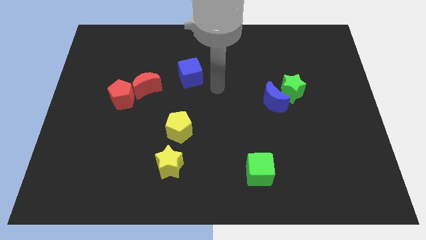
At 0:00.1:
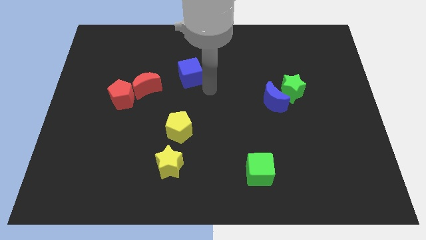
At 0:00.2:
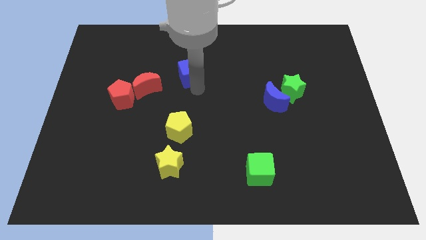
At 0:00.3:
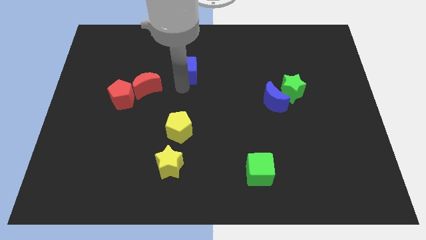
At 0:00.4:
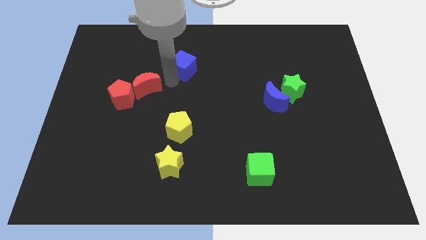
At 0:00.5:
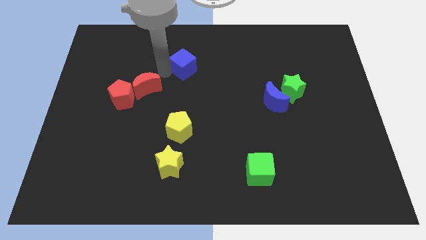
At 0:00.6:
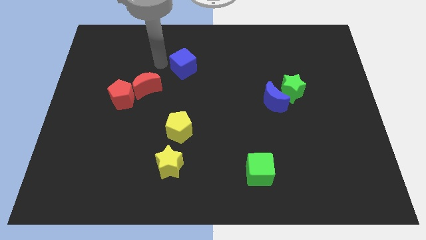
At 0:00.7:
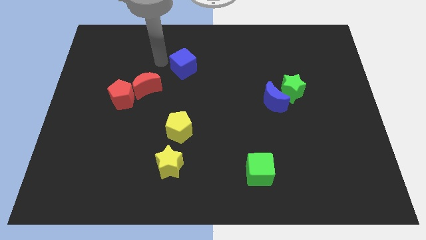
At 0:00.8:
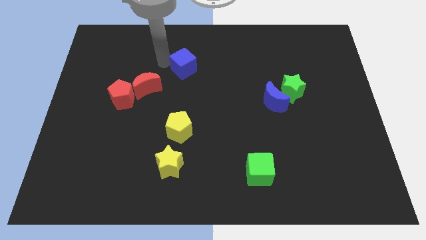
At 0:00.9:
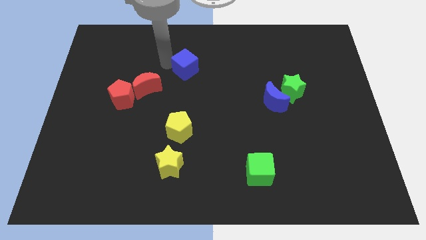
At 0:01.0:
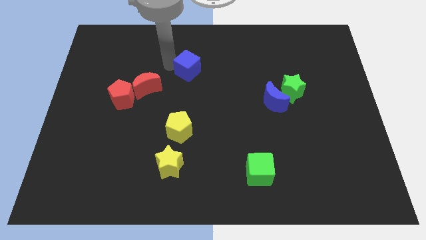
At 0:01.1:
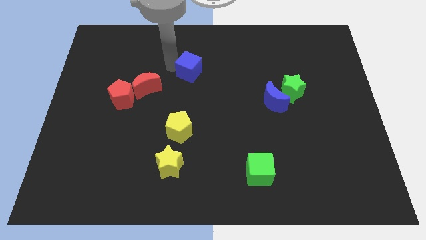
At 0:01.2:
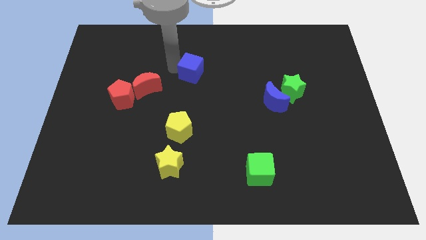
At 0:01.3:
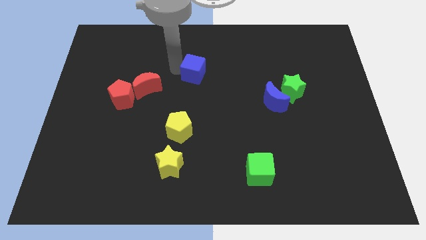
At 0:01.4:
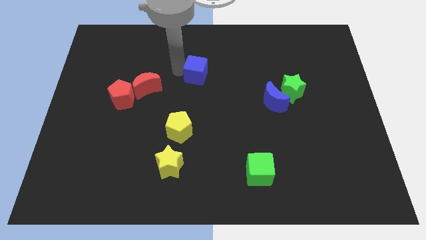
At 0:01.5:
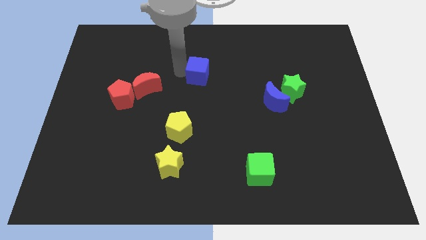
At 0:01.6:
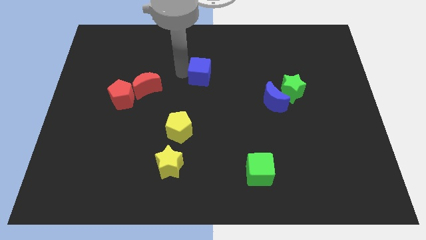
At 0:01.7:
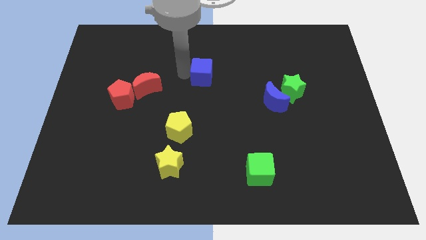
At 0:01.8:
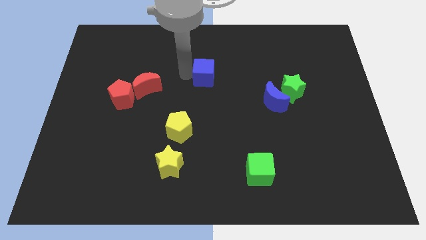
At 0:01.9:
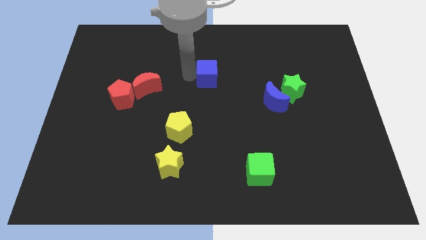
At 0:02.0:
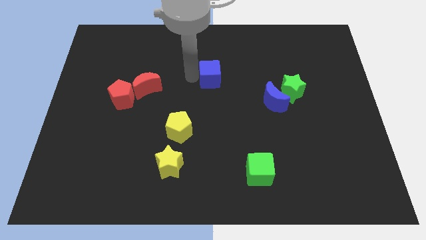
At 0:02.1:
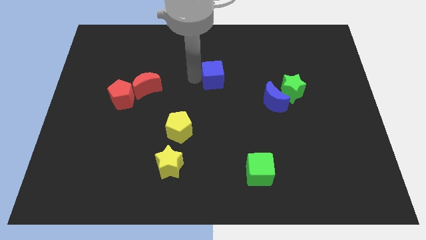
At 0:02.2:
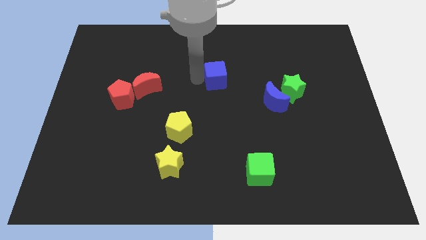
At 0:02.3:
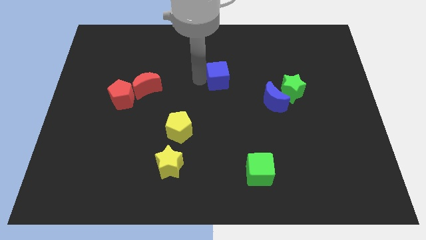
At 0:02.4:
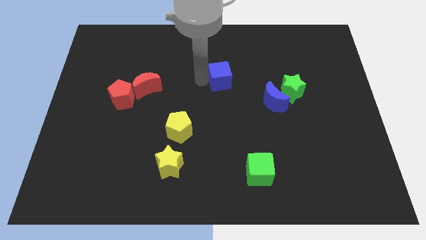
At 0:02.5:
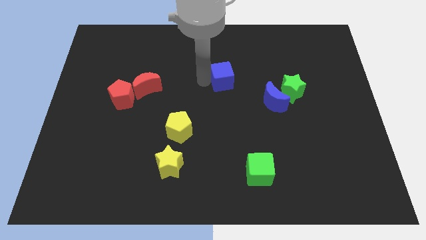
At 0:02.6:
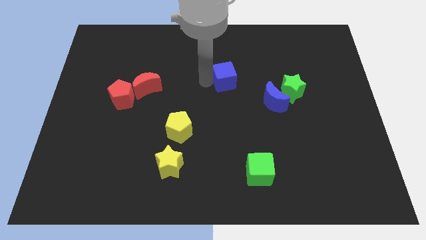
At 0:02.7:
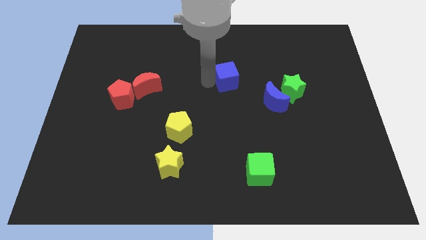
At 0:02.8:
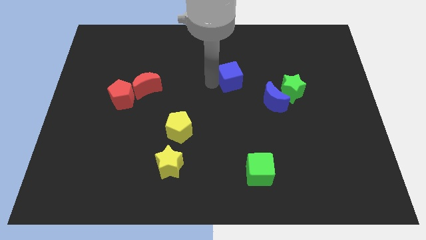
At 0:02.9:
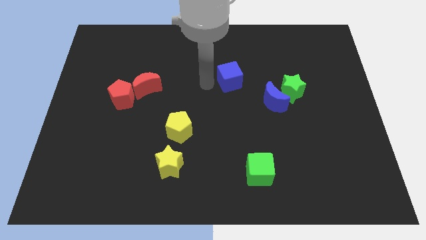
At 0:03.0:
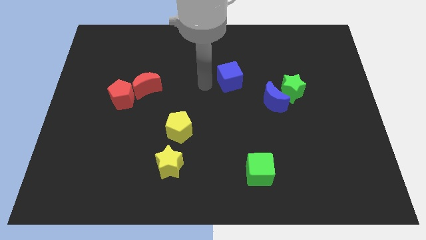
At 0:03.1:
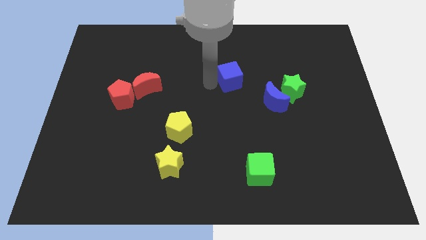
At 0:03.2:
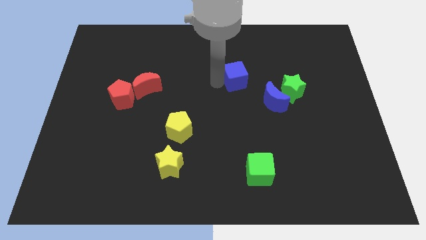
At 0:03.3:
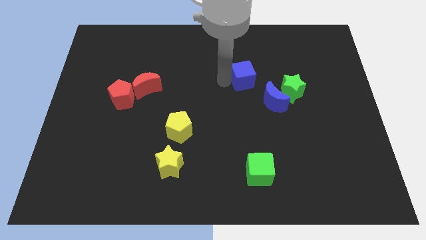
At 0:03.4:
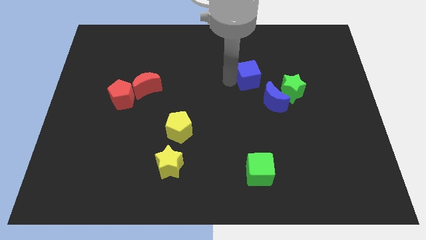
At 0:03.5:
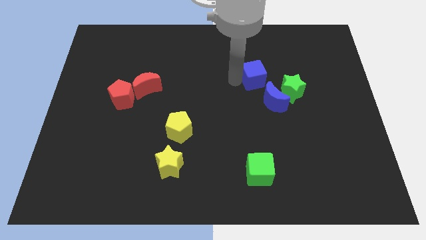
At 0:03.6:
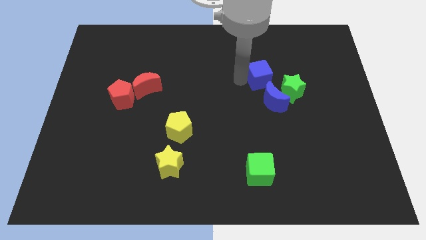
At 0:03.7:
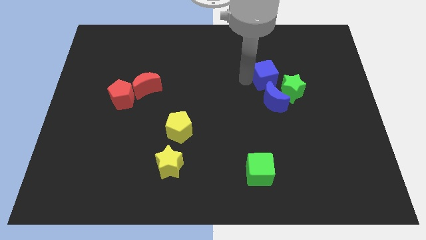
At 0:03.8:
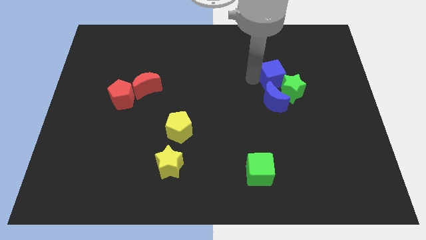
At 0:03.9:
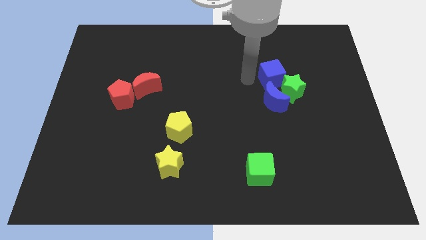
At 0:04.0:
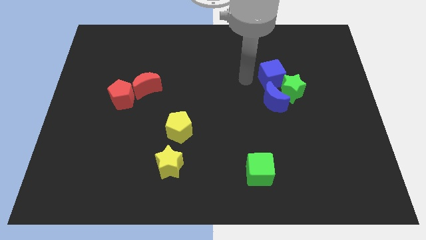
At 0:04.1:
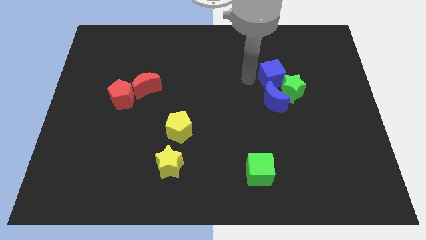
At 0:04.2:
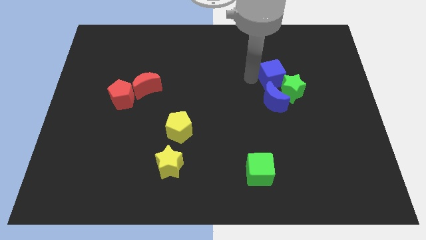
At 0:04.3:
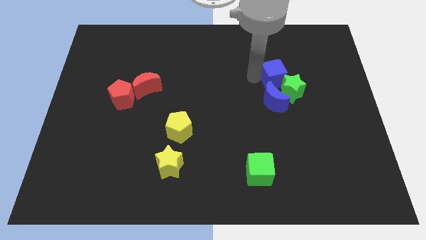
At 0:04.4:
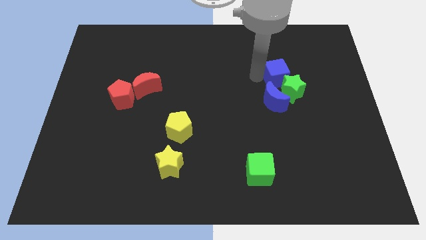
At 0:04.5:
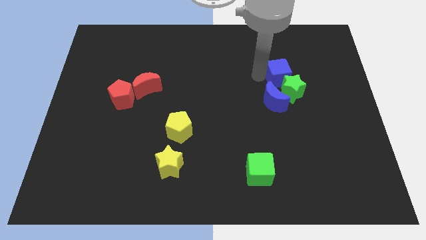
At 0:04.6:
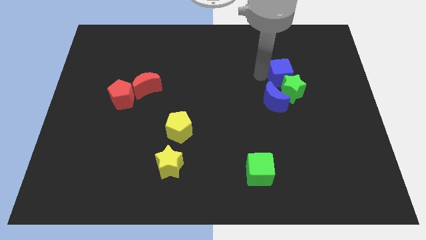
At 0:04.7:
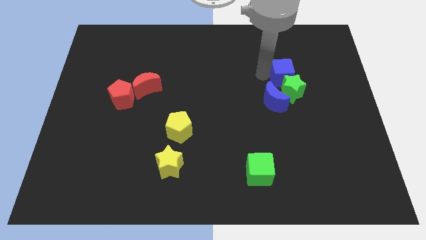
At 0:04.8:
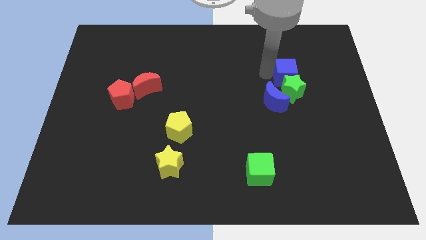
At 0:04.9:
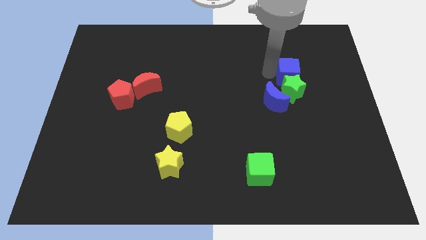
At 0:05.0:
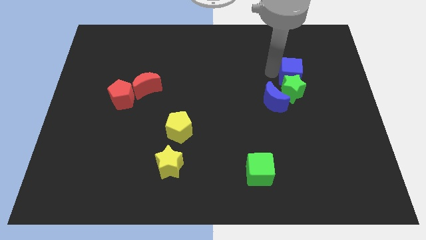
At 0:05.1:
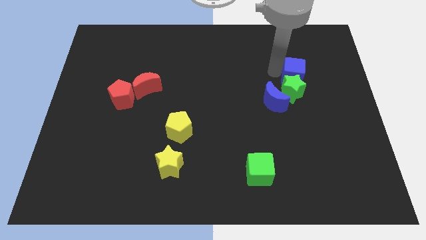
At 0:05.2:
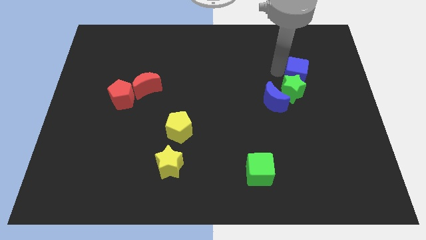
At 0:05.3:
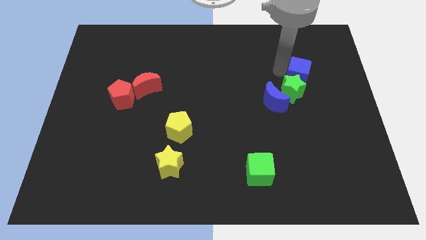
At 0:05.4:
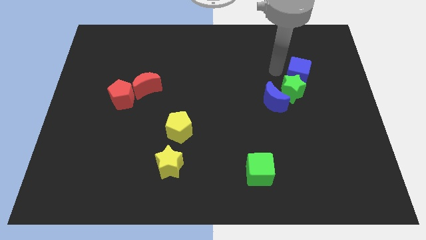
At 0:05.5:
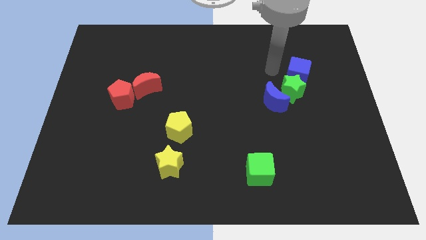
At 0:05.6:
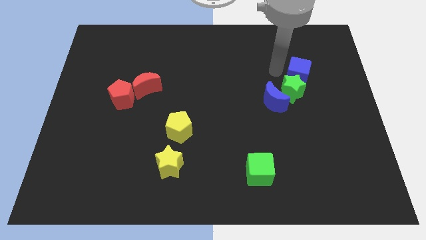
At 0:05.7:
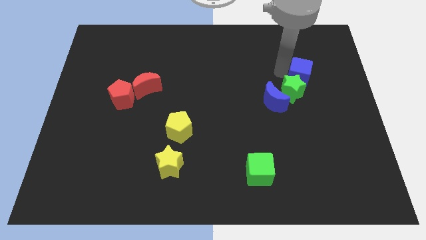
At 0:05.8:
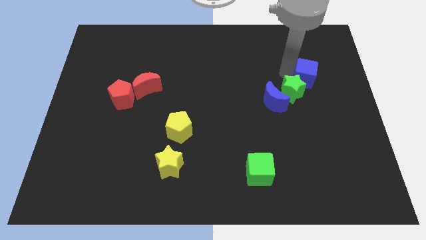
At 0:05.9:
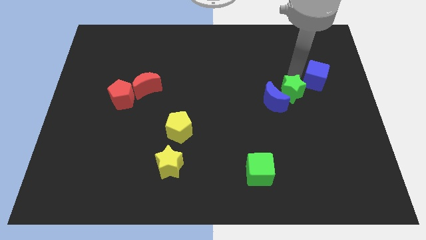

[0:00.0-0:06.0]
move the blue cube right of the green star

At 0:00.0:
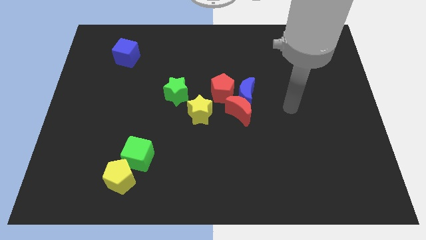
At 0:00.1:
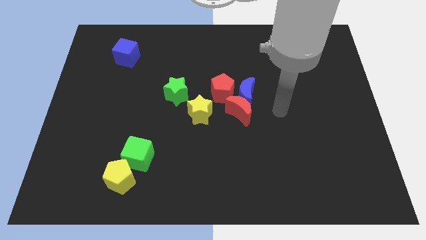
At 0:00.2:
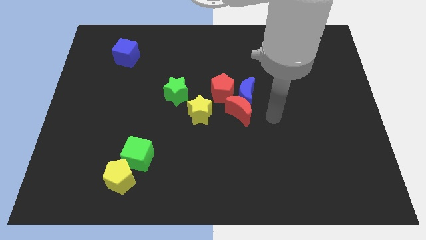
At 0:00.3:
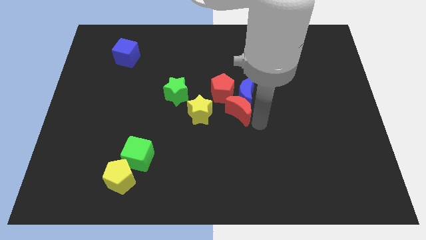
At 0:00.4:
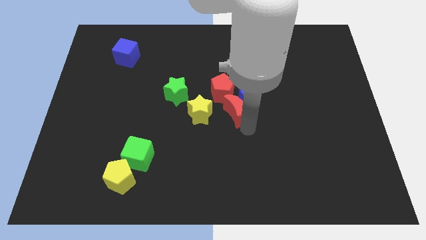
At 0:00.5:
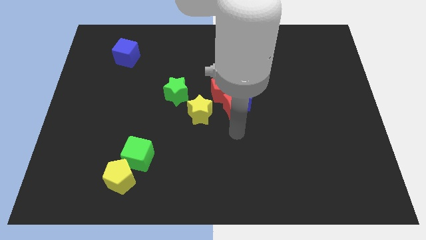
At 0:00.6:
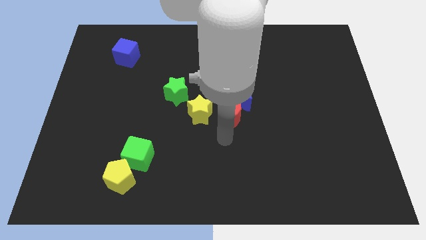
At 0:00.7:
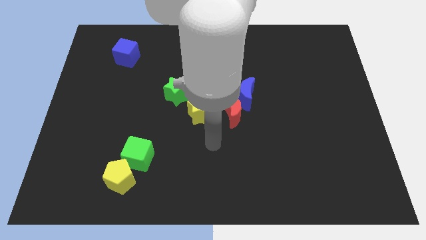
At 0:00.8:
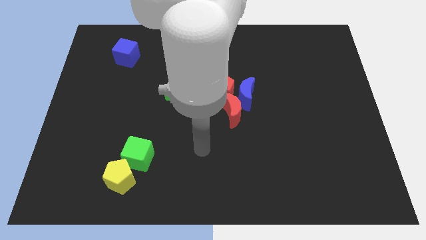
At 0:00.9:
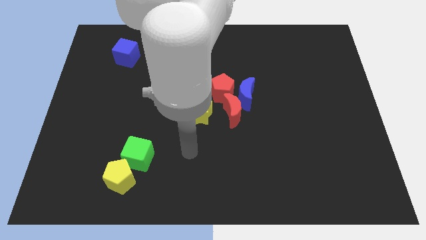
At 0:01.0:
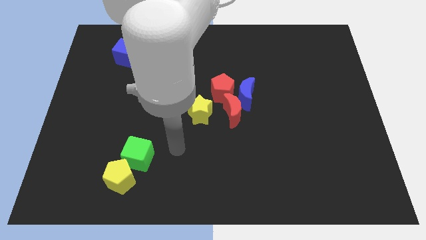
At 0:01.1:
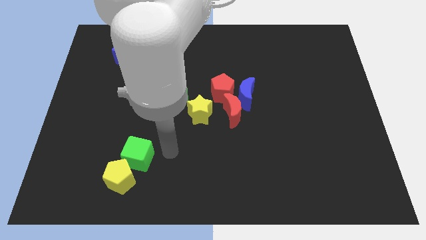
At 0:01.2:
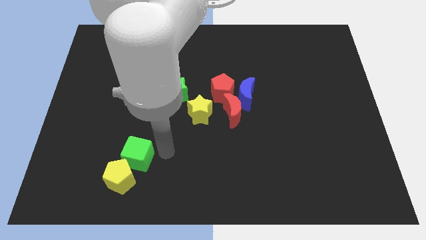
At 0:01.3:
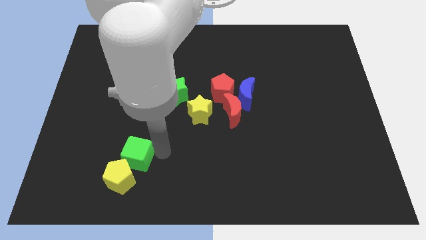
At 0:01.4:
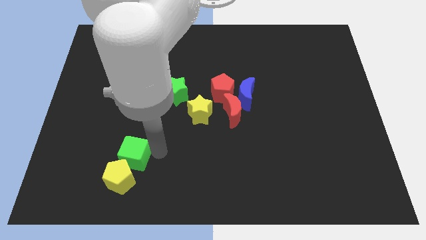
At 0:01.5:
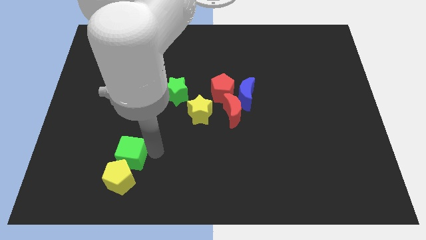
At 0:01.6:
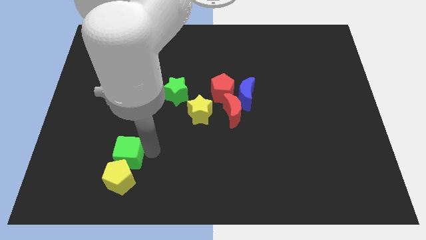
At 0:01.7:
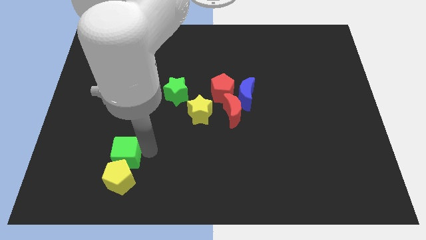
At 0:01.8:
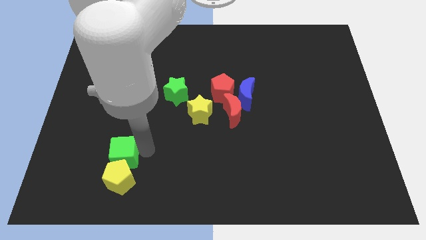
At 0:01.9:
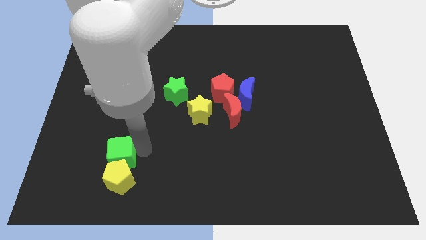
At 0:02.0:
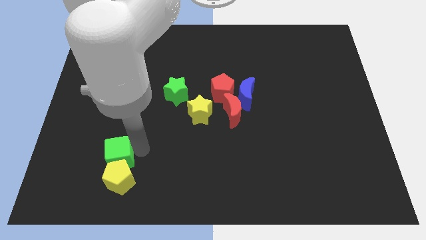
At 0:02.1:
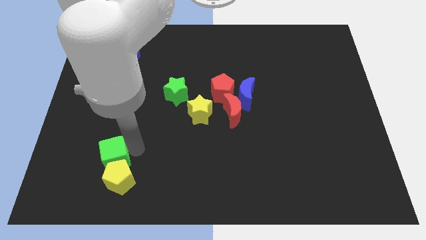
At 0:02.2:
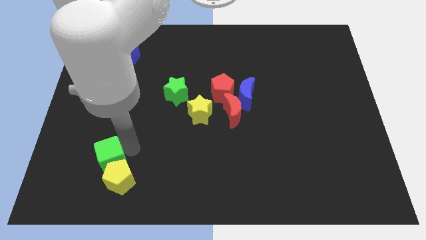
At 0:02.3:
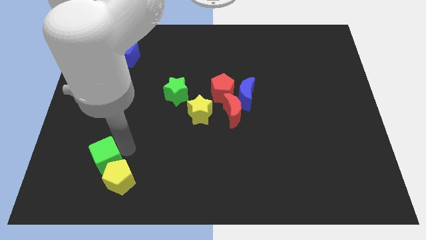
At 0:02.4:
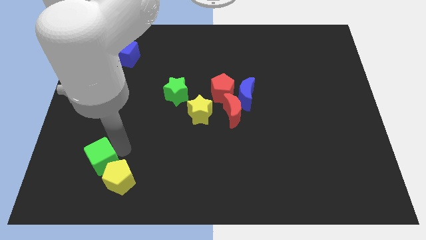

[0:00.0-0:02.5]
slide the green cube to the left side of the yellow pentagon
